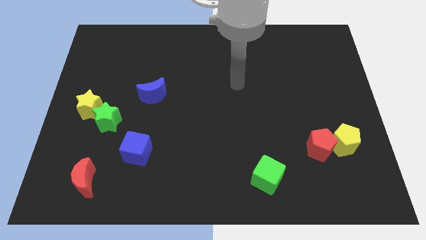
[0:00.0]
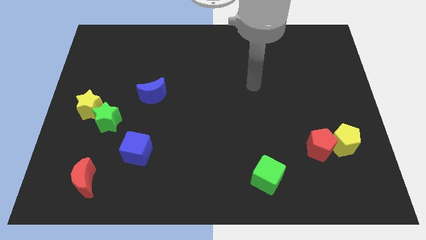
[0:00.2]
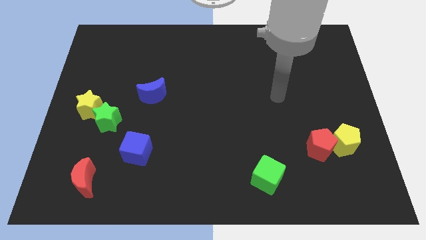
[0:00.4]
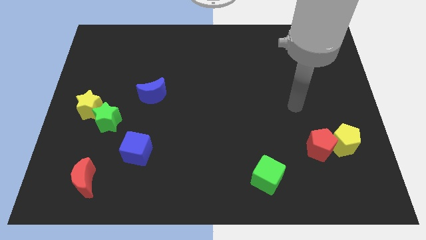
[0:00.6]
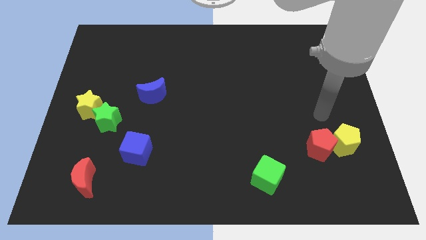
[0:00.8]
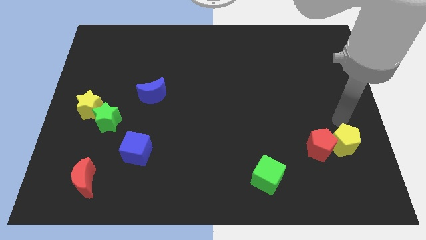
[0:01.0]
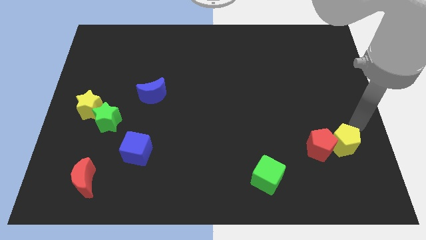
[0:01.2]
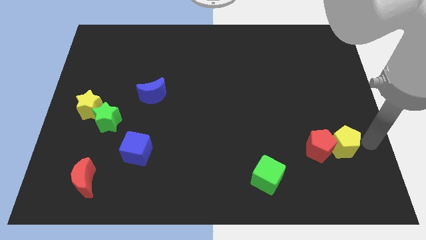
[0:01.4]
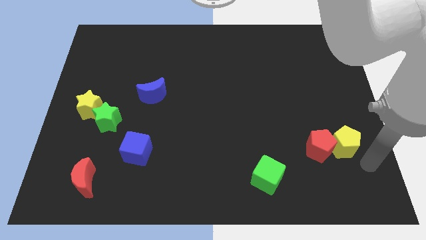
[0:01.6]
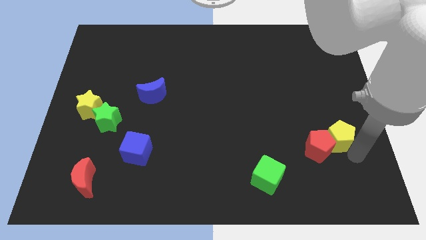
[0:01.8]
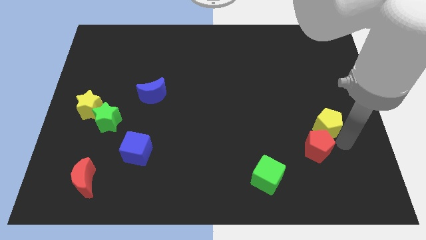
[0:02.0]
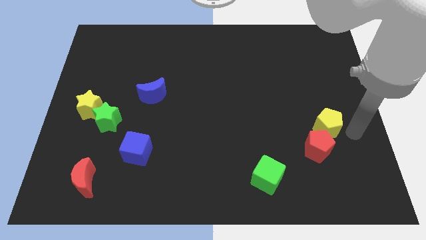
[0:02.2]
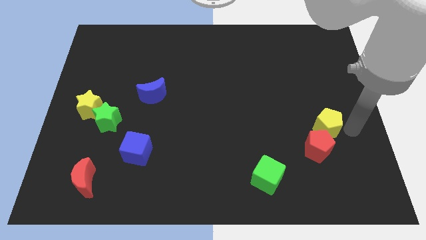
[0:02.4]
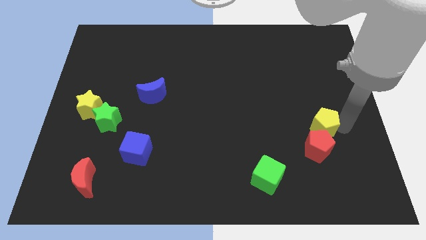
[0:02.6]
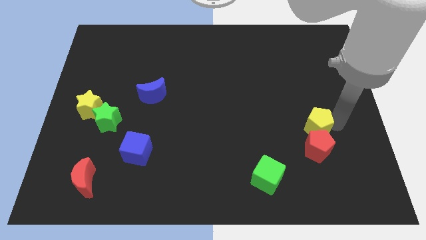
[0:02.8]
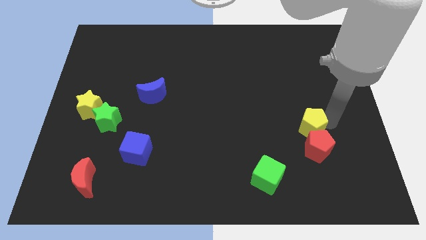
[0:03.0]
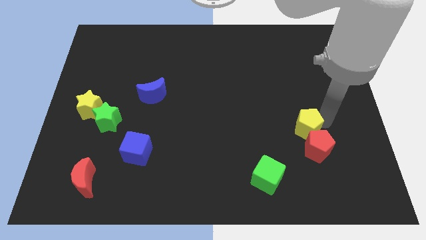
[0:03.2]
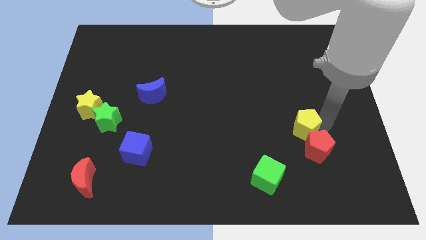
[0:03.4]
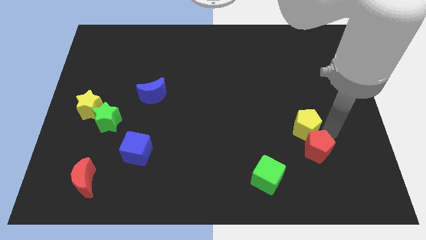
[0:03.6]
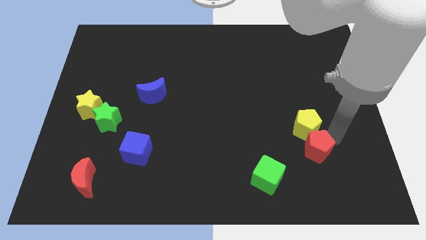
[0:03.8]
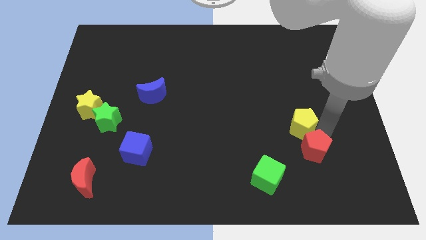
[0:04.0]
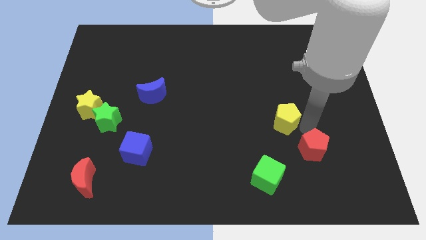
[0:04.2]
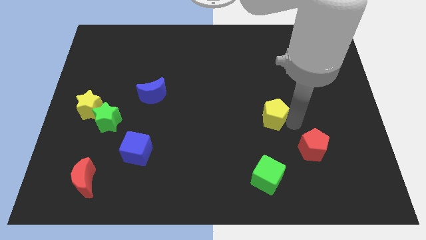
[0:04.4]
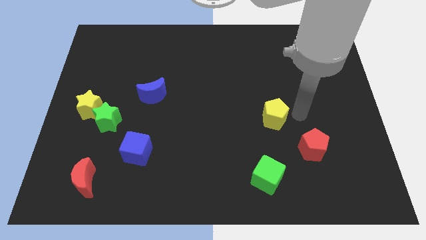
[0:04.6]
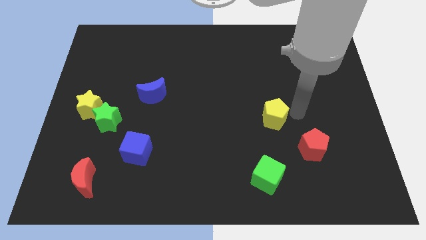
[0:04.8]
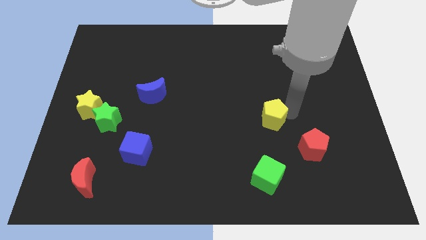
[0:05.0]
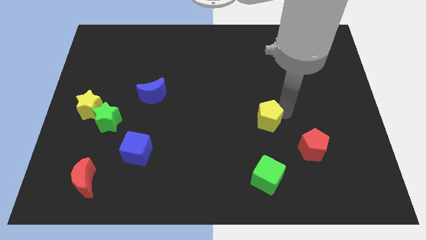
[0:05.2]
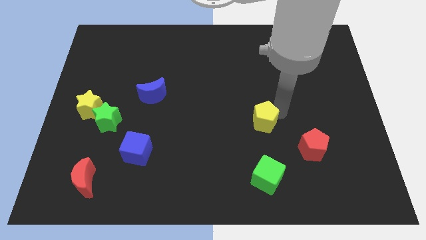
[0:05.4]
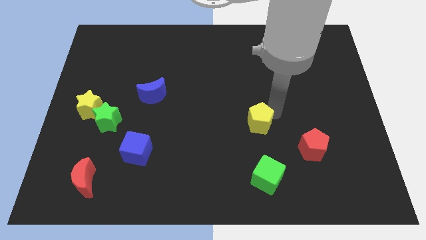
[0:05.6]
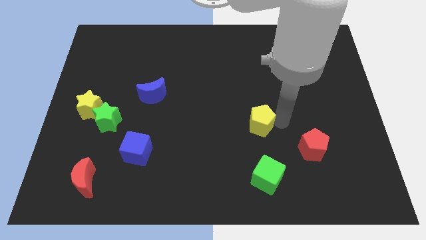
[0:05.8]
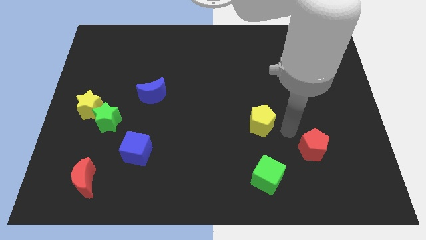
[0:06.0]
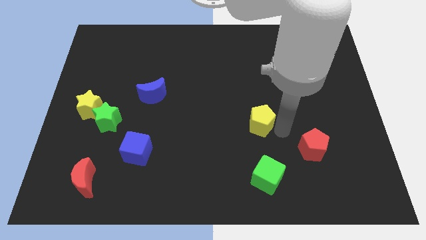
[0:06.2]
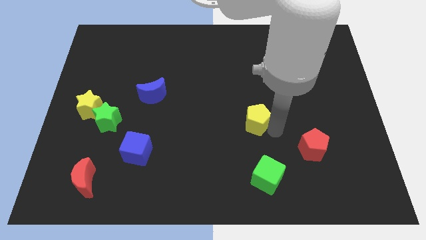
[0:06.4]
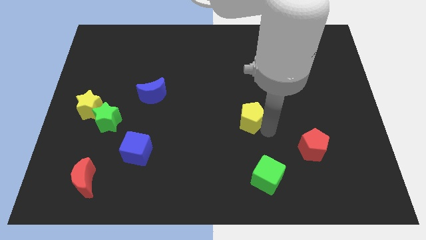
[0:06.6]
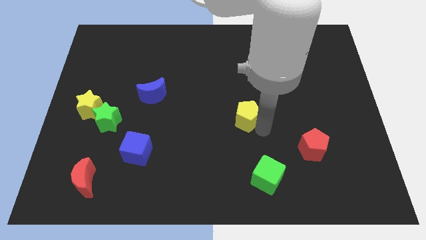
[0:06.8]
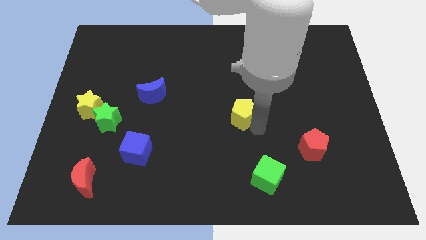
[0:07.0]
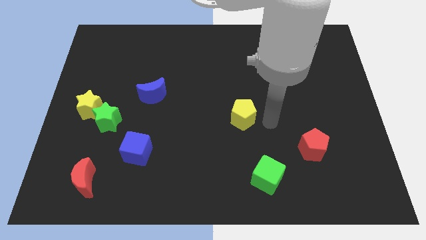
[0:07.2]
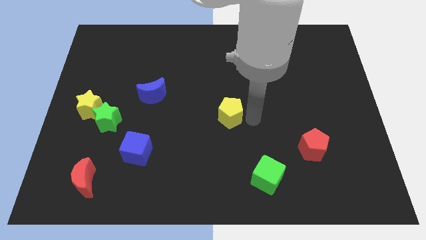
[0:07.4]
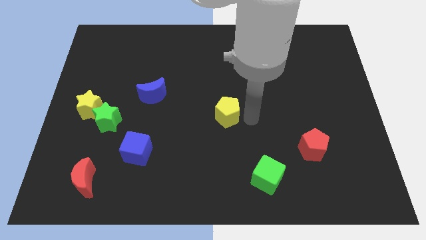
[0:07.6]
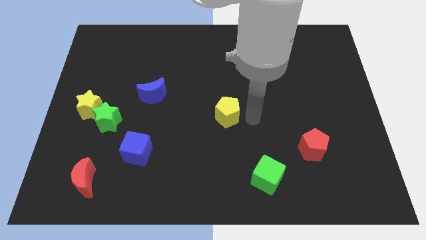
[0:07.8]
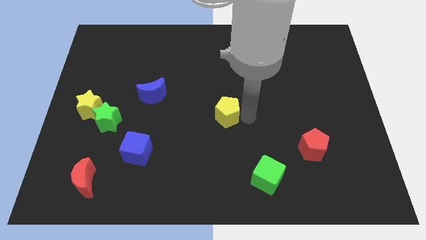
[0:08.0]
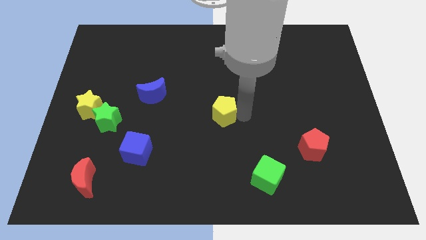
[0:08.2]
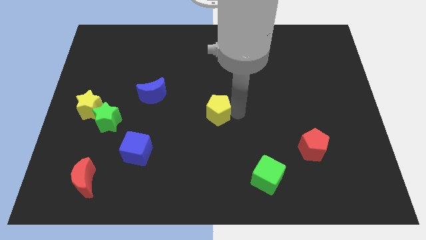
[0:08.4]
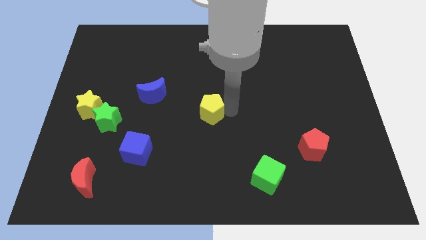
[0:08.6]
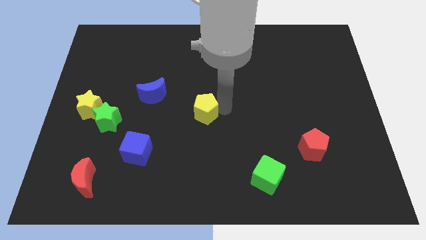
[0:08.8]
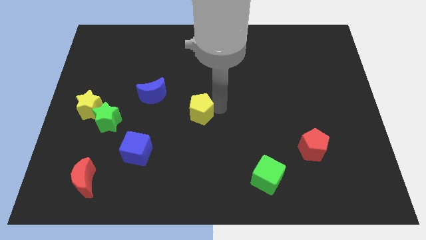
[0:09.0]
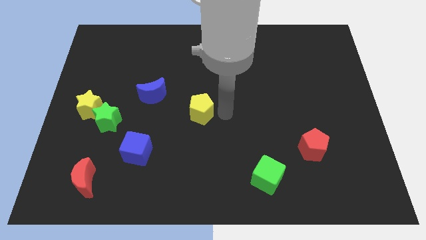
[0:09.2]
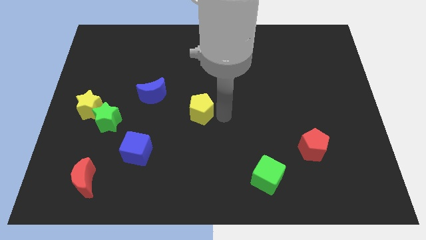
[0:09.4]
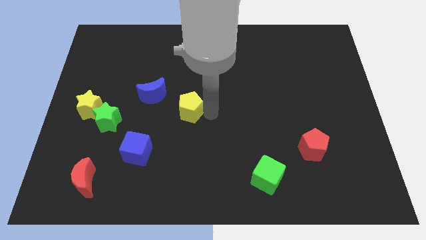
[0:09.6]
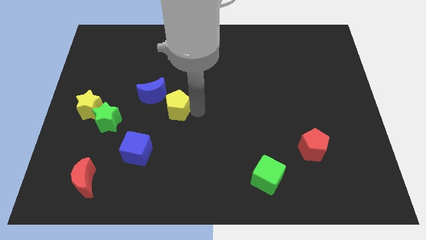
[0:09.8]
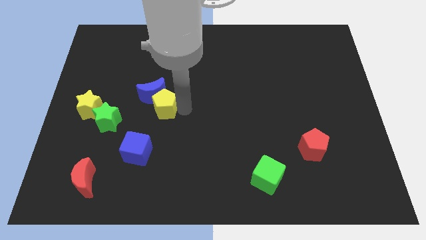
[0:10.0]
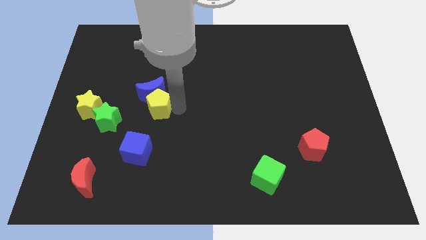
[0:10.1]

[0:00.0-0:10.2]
push the yellow pentagon diagonally down and to the left of the blue moon

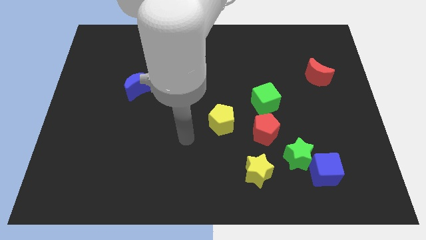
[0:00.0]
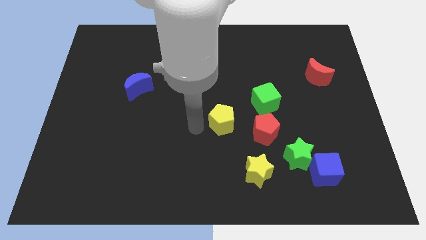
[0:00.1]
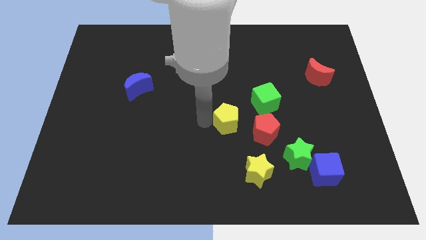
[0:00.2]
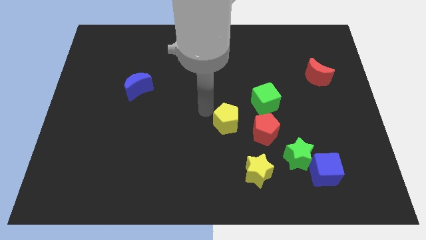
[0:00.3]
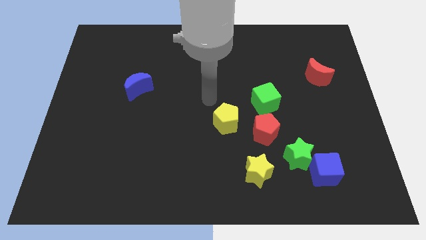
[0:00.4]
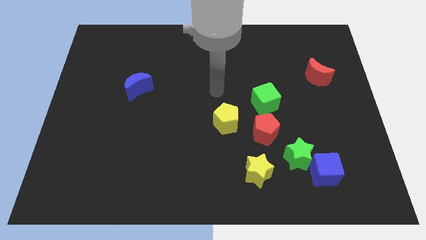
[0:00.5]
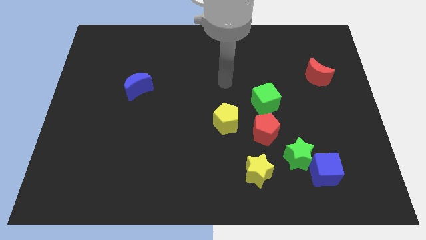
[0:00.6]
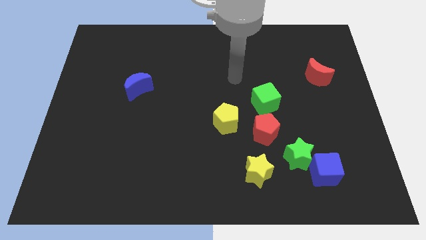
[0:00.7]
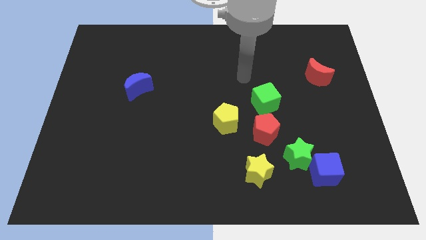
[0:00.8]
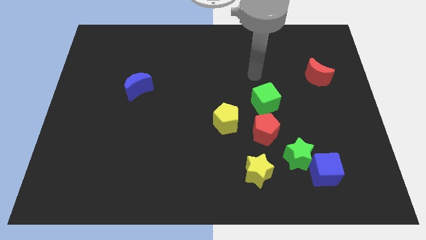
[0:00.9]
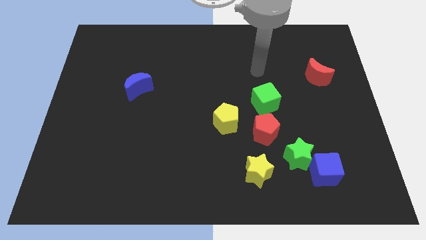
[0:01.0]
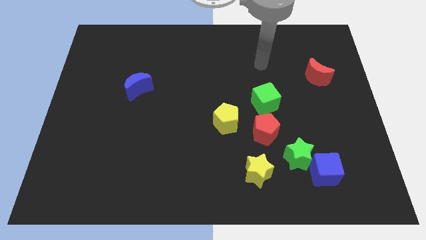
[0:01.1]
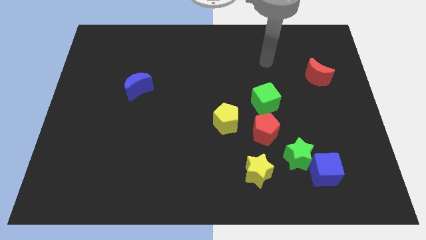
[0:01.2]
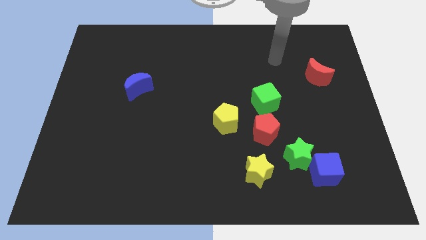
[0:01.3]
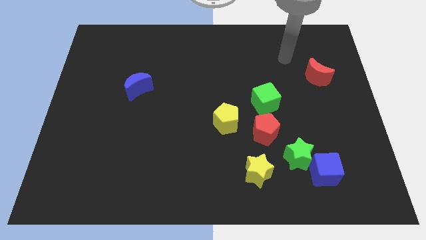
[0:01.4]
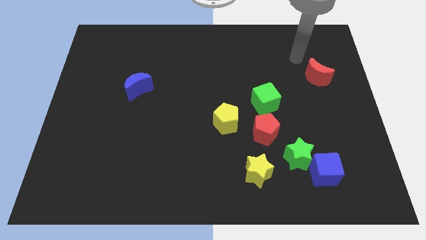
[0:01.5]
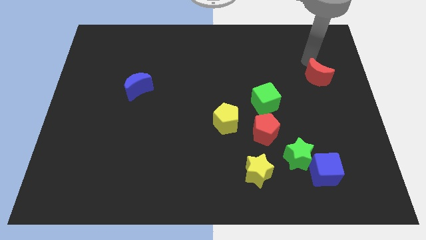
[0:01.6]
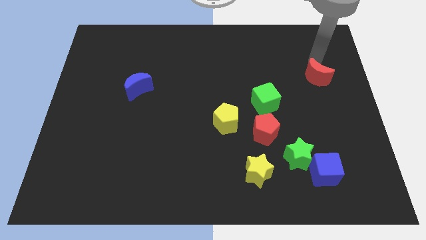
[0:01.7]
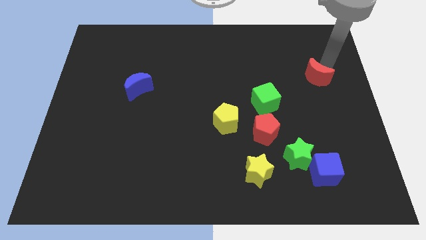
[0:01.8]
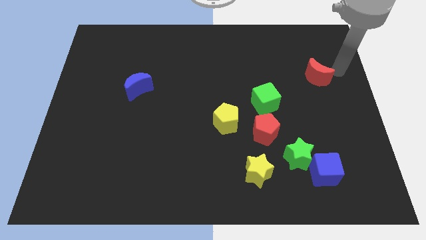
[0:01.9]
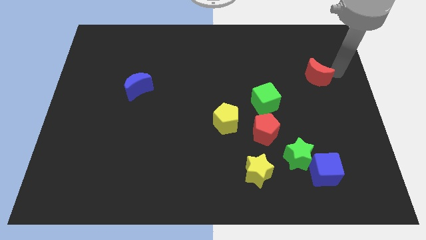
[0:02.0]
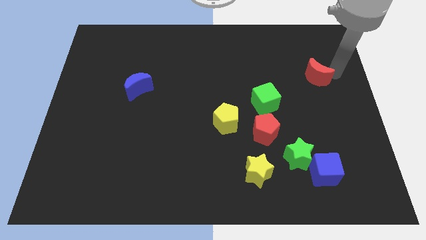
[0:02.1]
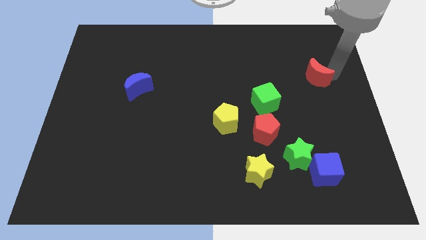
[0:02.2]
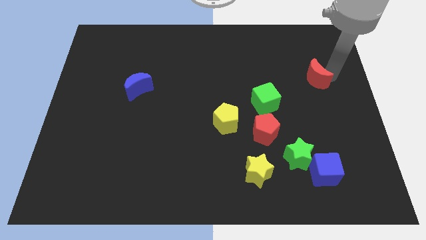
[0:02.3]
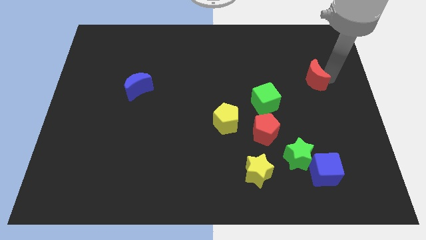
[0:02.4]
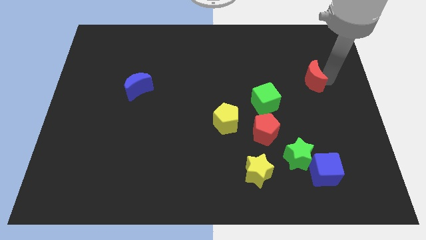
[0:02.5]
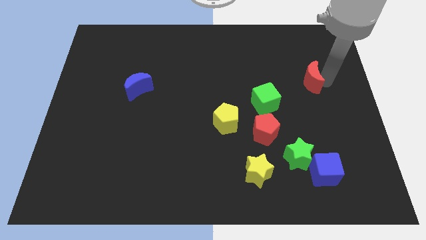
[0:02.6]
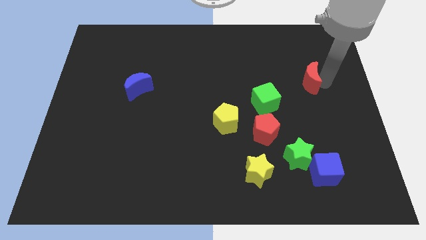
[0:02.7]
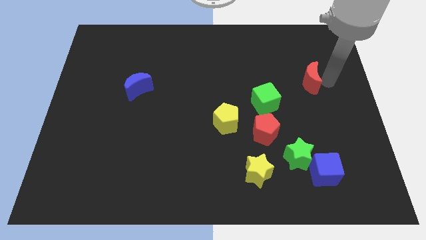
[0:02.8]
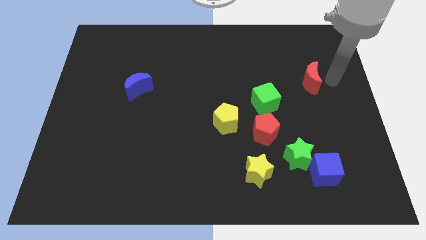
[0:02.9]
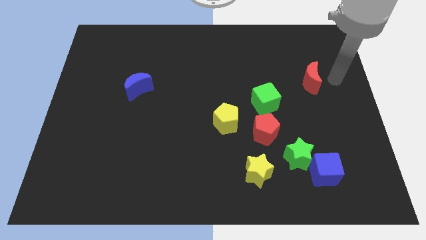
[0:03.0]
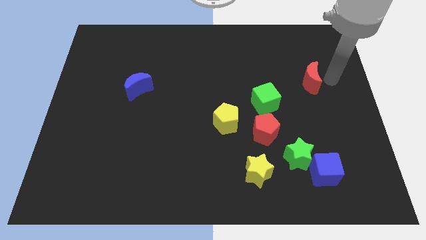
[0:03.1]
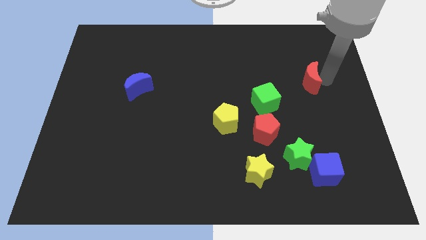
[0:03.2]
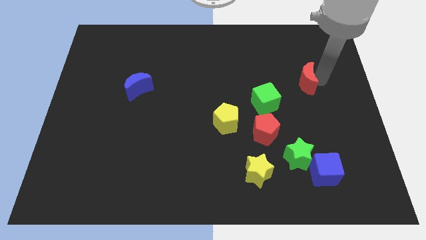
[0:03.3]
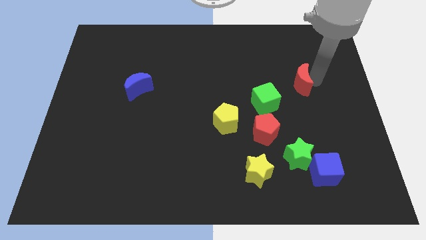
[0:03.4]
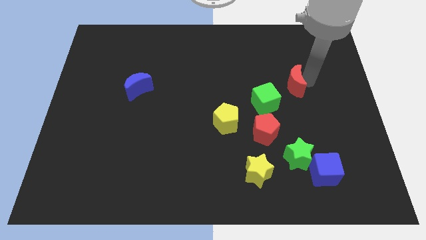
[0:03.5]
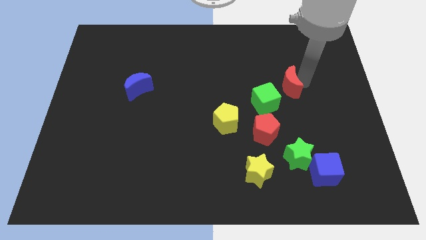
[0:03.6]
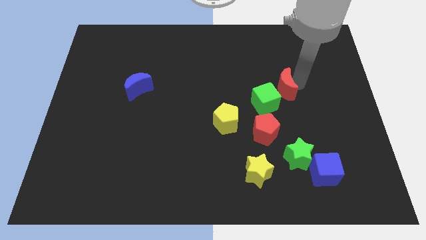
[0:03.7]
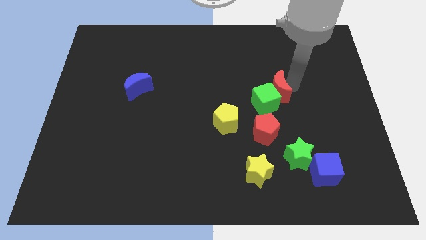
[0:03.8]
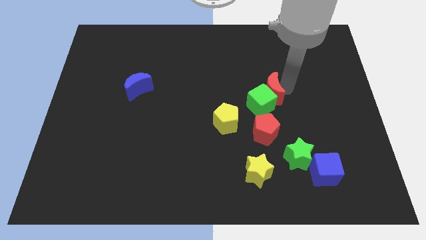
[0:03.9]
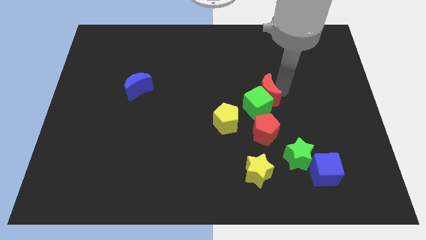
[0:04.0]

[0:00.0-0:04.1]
move the red moon diagonally up and to the right of the yellow pentagon
